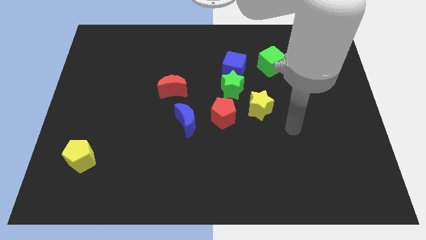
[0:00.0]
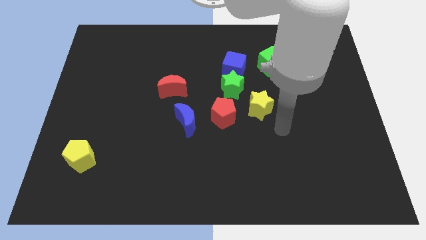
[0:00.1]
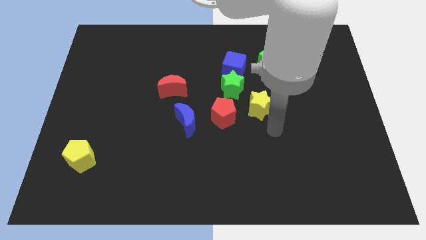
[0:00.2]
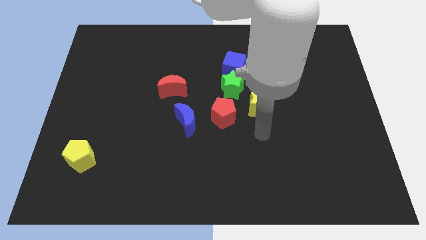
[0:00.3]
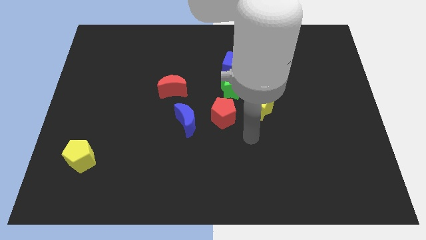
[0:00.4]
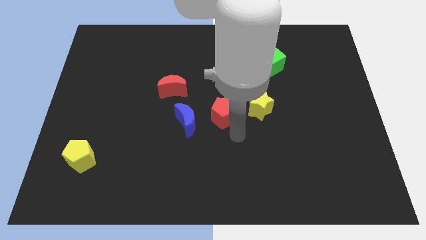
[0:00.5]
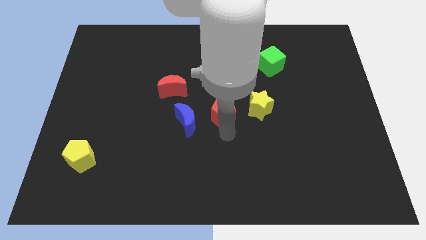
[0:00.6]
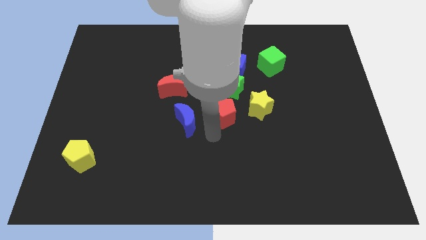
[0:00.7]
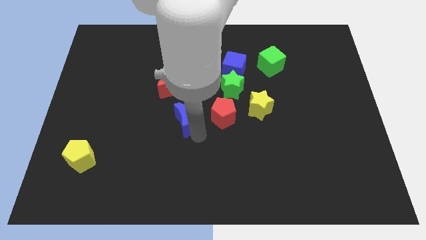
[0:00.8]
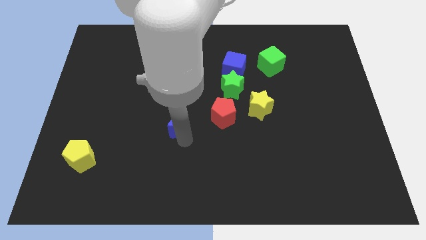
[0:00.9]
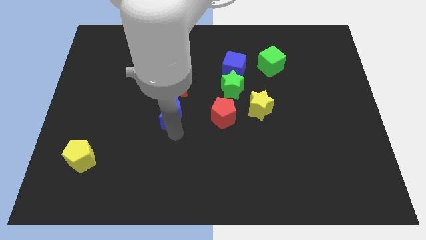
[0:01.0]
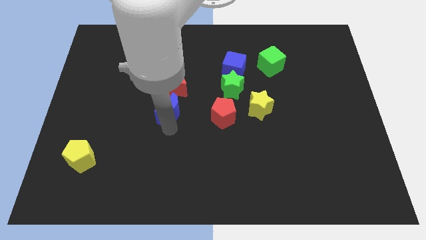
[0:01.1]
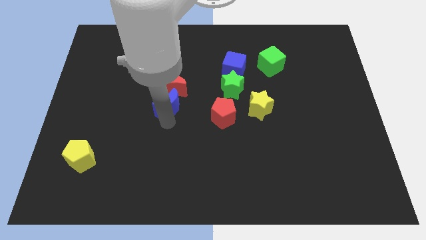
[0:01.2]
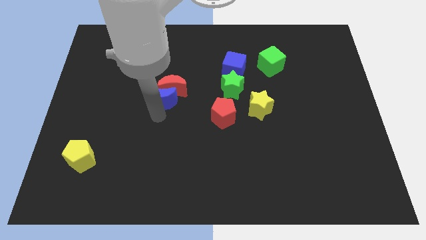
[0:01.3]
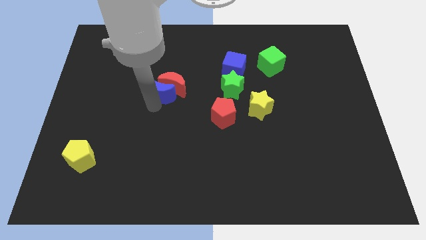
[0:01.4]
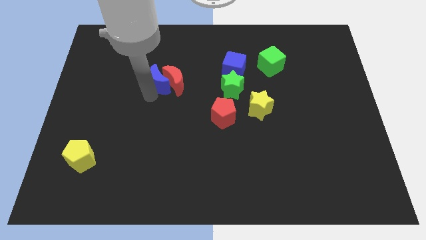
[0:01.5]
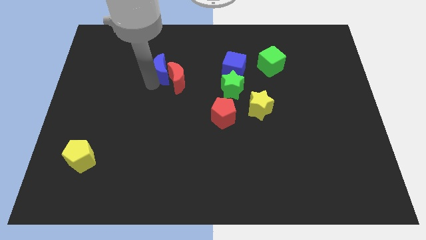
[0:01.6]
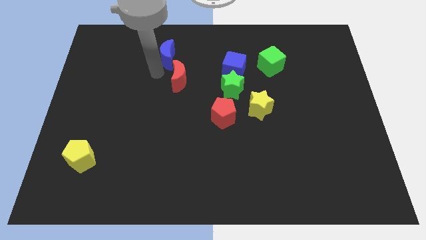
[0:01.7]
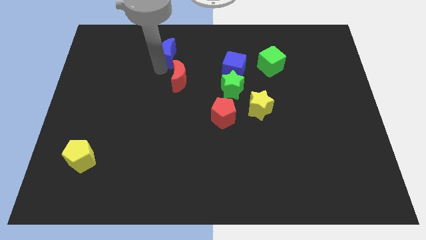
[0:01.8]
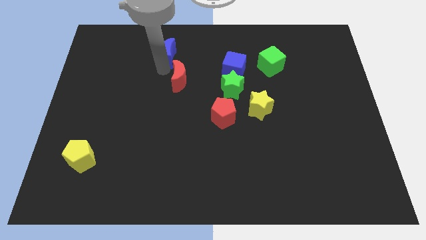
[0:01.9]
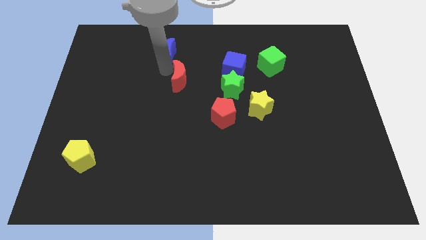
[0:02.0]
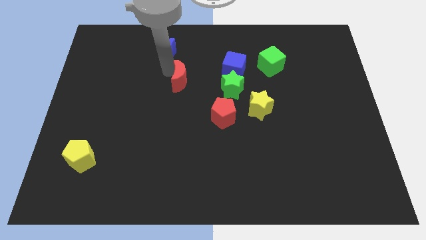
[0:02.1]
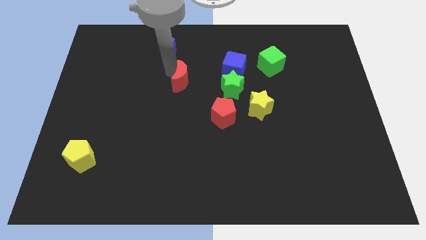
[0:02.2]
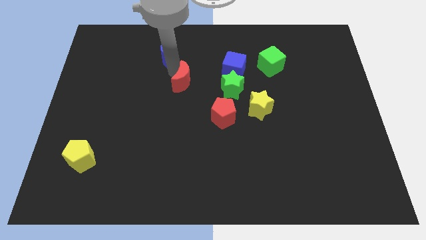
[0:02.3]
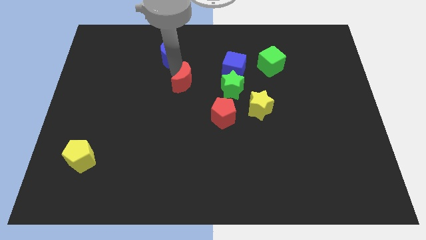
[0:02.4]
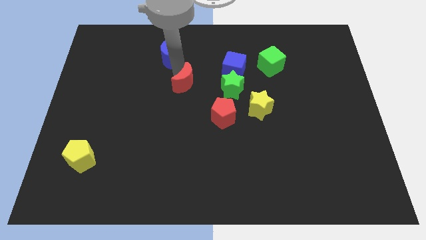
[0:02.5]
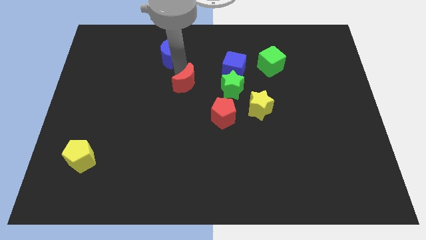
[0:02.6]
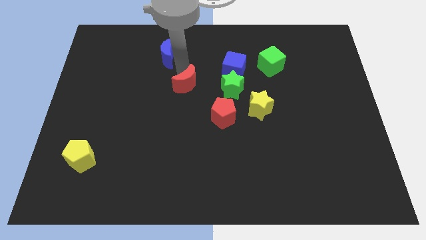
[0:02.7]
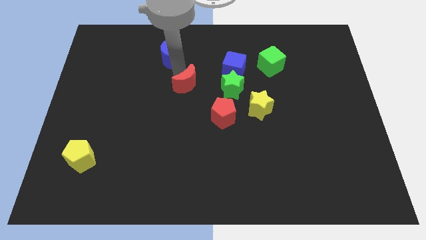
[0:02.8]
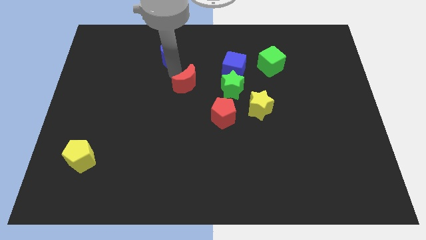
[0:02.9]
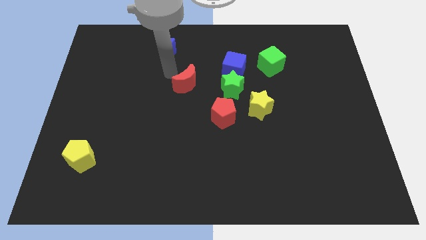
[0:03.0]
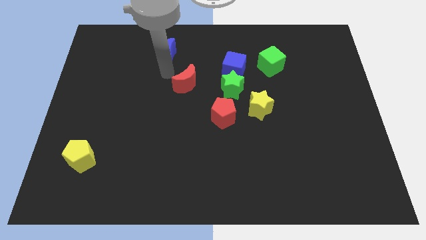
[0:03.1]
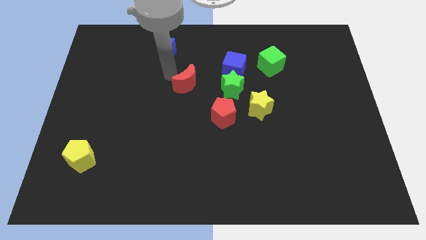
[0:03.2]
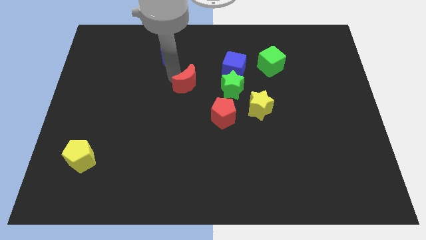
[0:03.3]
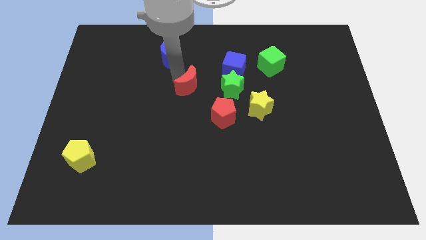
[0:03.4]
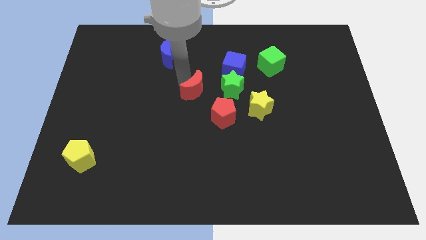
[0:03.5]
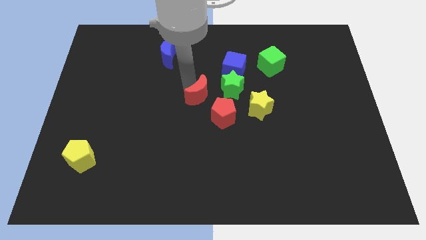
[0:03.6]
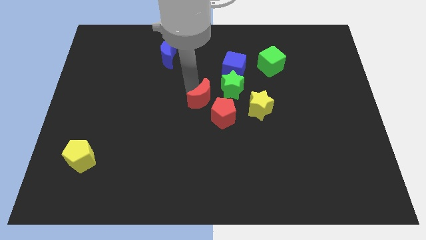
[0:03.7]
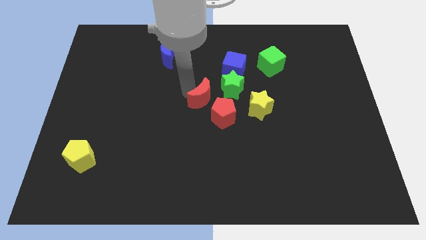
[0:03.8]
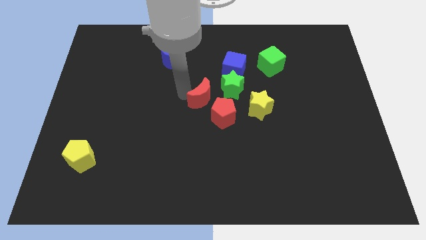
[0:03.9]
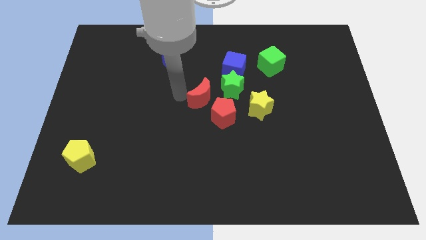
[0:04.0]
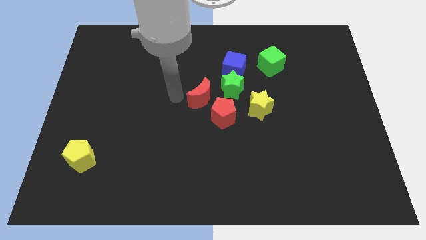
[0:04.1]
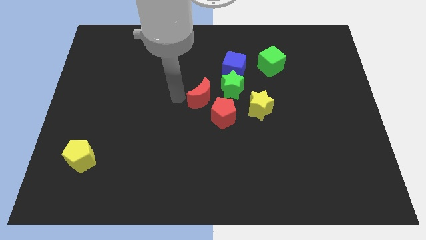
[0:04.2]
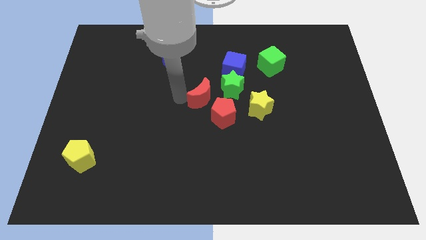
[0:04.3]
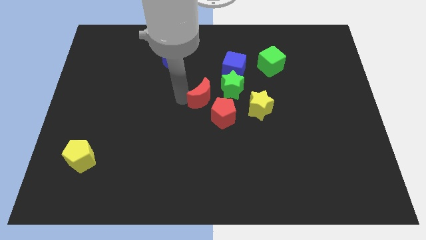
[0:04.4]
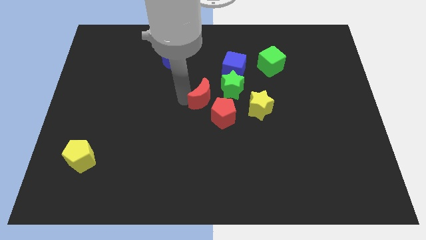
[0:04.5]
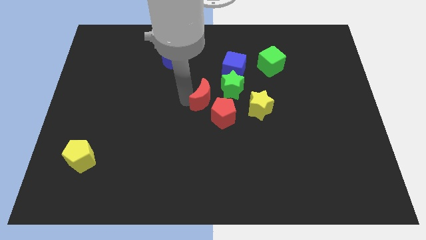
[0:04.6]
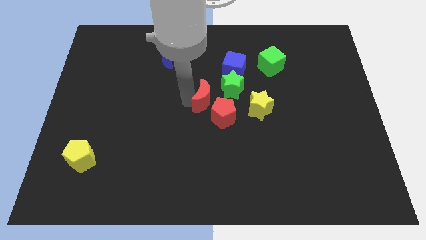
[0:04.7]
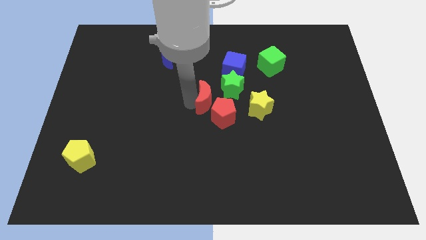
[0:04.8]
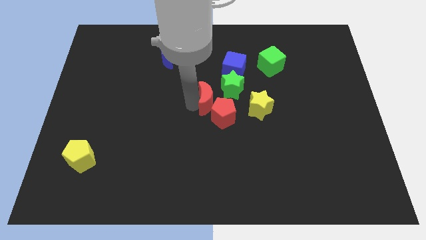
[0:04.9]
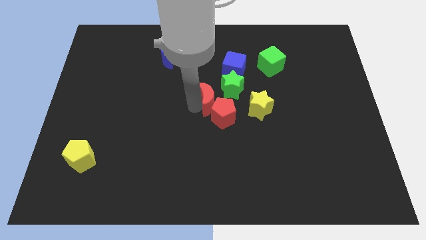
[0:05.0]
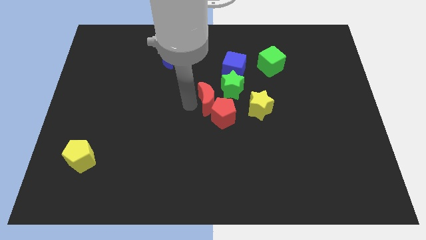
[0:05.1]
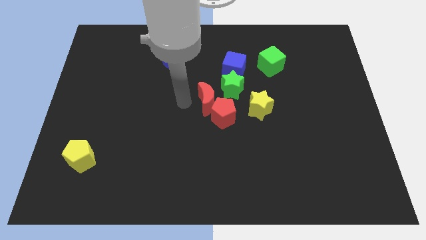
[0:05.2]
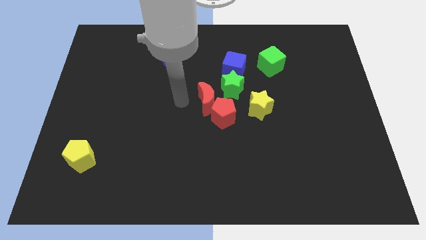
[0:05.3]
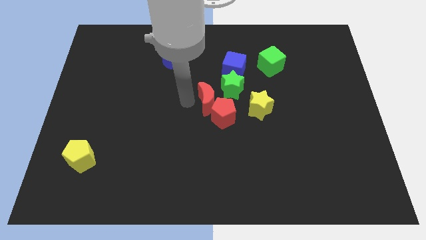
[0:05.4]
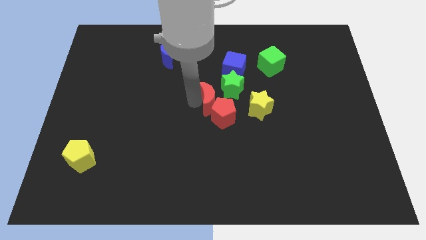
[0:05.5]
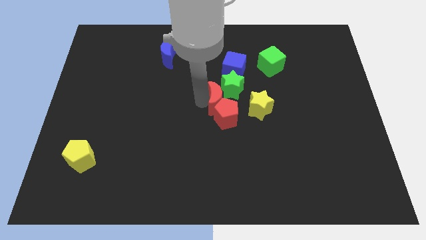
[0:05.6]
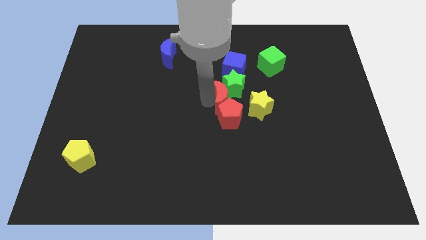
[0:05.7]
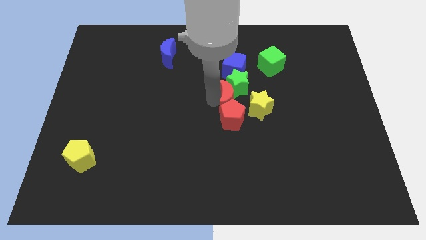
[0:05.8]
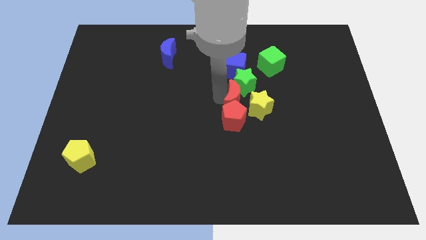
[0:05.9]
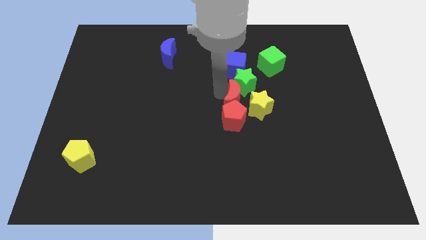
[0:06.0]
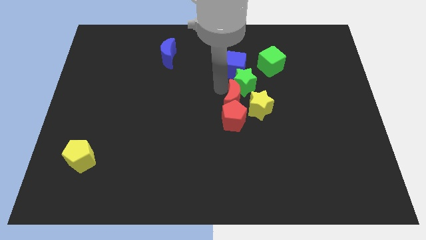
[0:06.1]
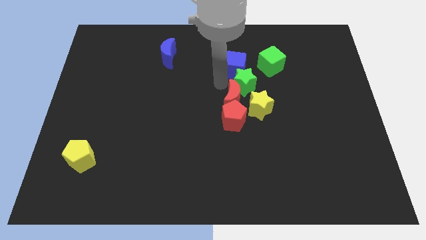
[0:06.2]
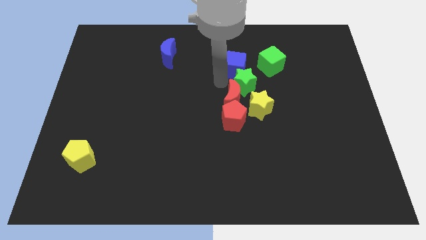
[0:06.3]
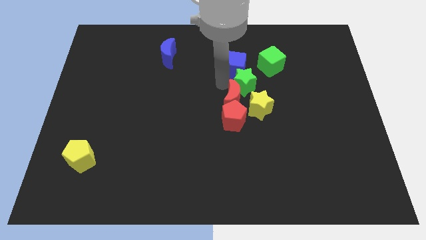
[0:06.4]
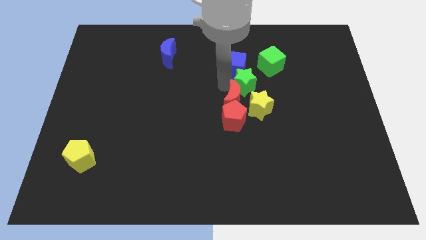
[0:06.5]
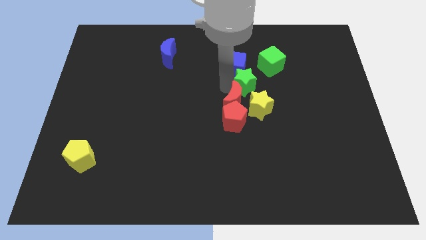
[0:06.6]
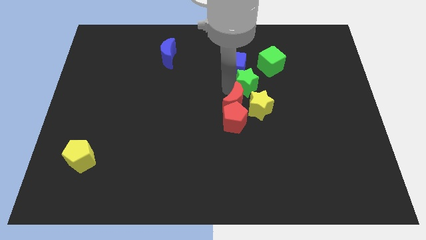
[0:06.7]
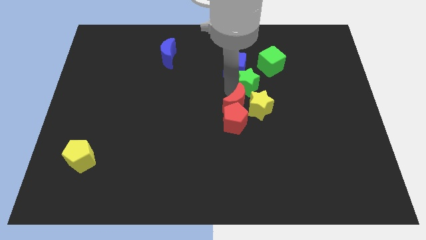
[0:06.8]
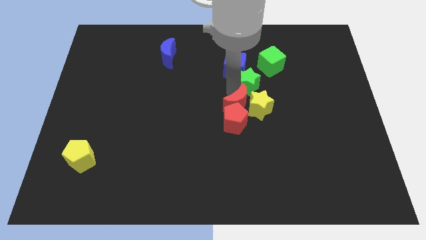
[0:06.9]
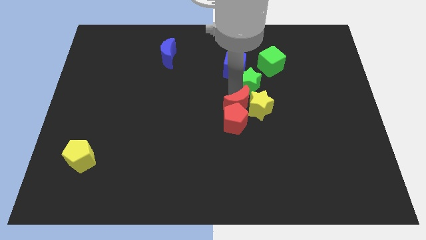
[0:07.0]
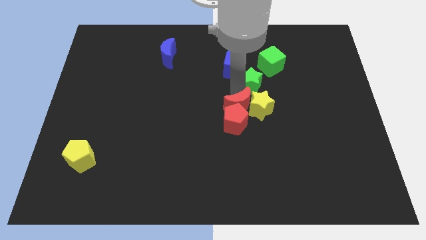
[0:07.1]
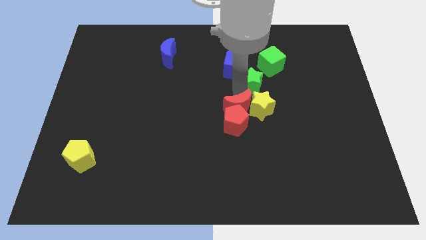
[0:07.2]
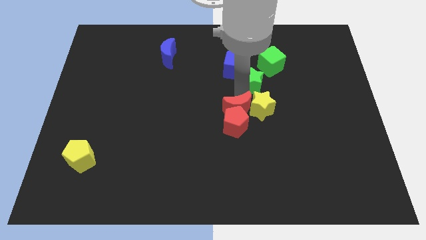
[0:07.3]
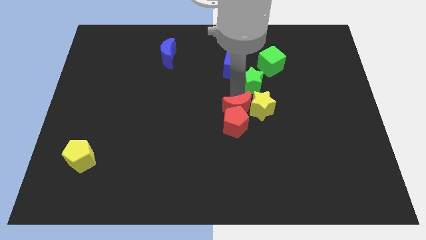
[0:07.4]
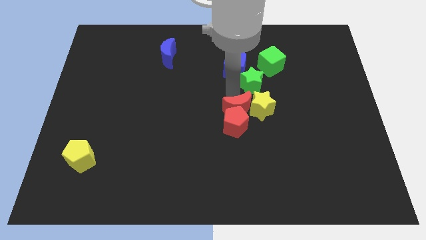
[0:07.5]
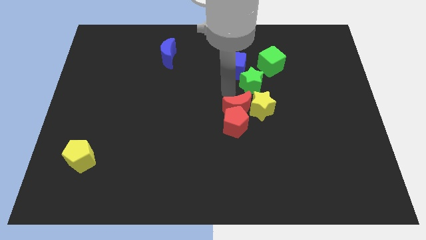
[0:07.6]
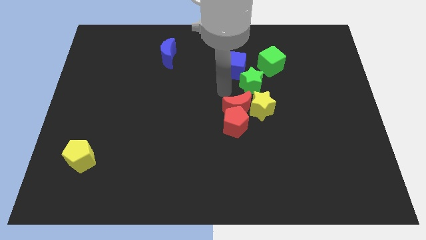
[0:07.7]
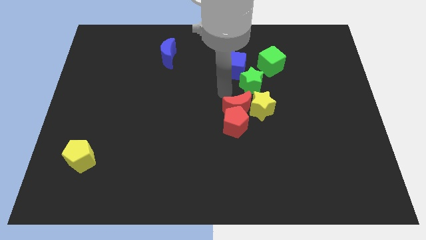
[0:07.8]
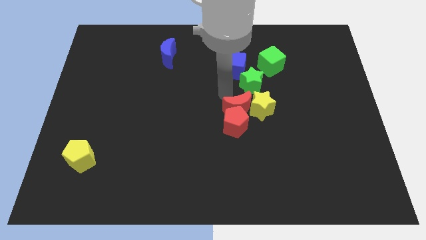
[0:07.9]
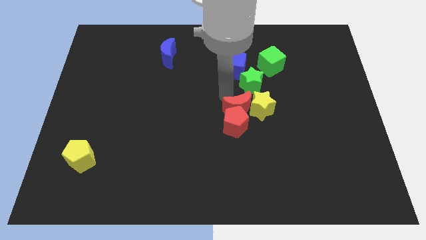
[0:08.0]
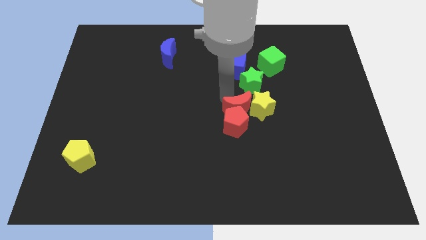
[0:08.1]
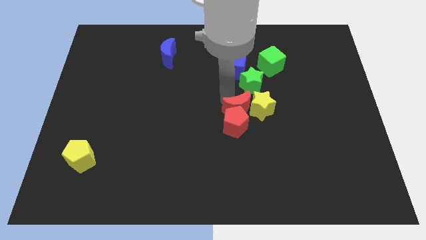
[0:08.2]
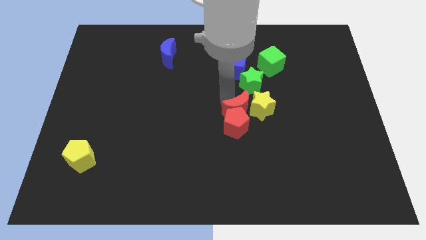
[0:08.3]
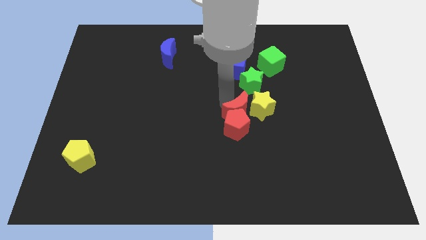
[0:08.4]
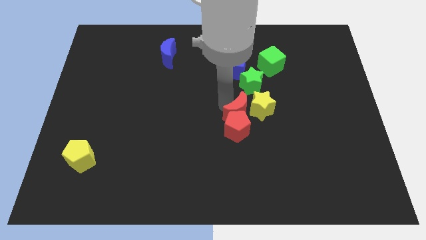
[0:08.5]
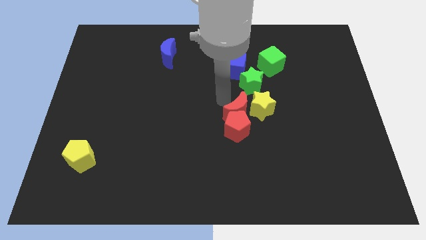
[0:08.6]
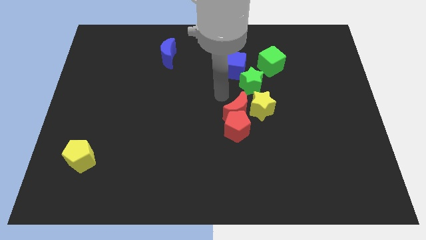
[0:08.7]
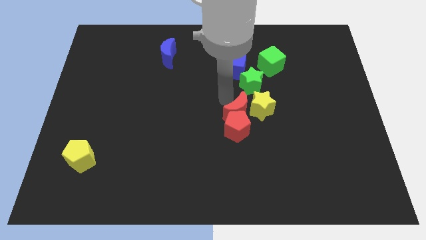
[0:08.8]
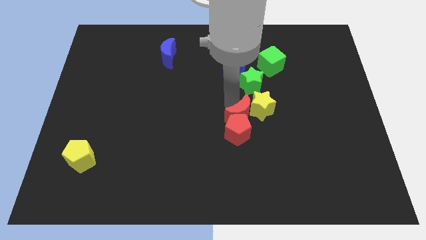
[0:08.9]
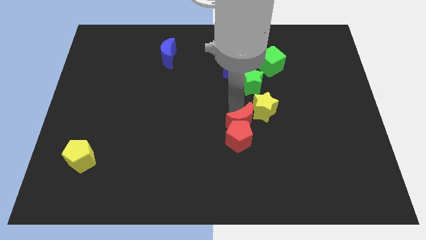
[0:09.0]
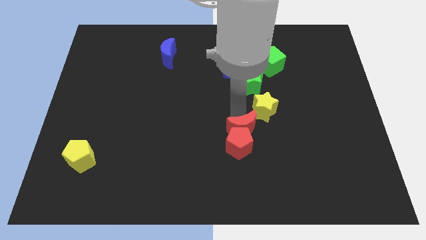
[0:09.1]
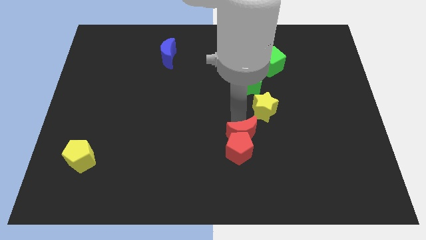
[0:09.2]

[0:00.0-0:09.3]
move the red moon downwards and to the right diagonally
